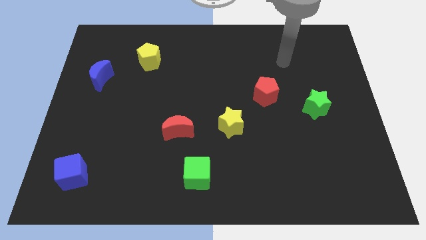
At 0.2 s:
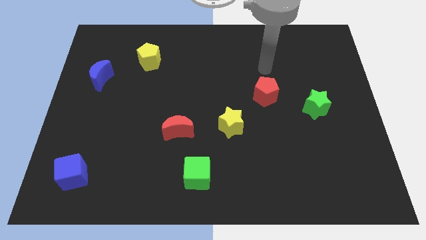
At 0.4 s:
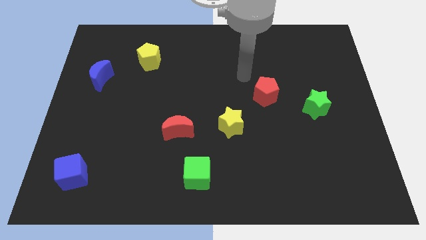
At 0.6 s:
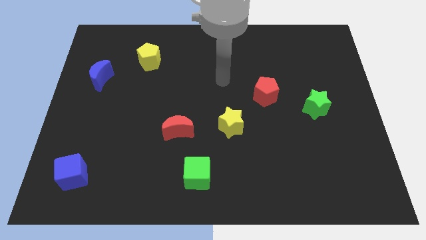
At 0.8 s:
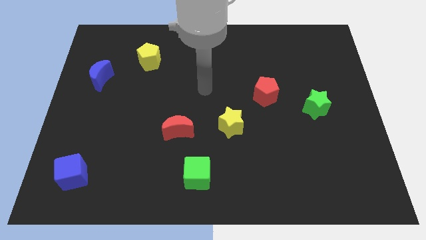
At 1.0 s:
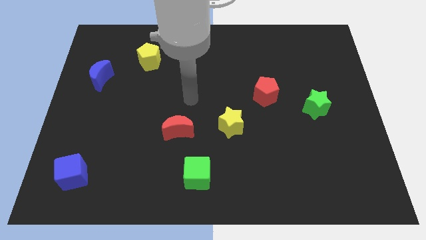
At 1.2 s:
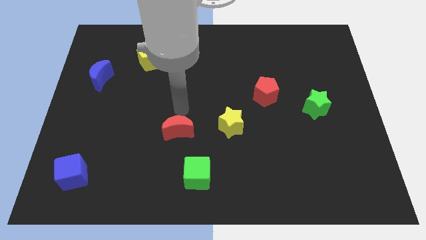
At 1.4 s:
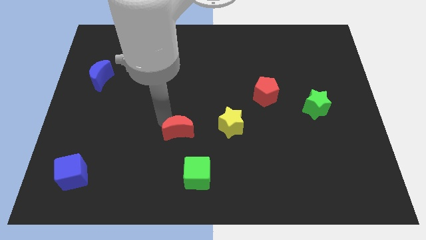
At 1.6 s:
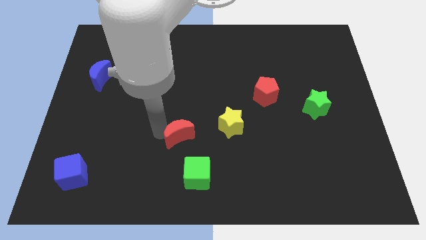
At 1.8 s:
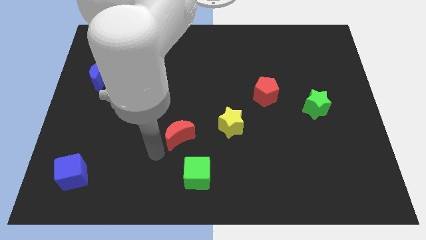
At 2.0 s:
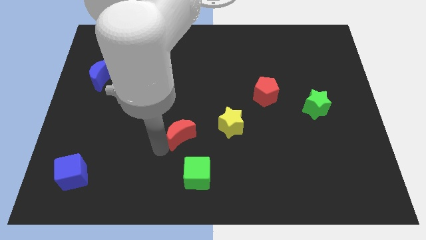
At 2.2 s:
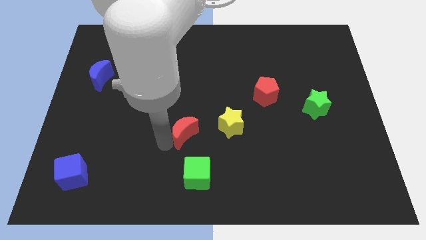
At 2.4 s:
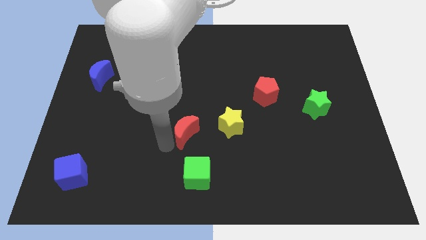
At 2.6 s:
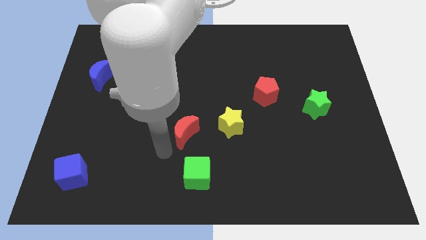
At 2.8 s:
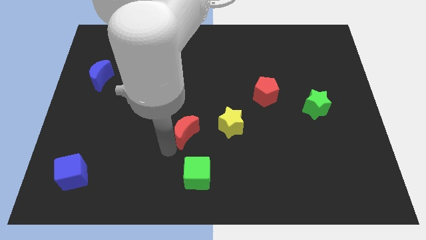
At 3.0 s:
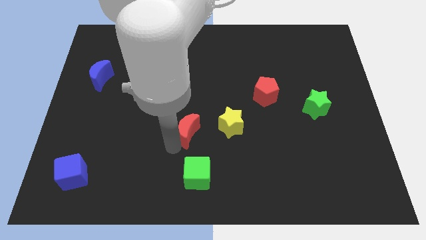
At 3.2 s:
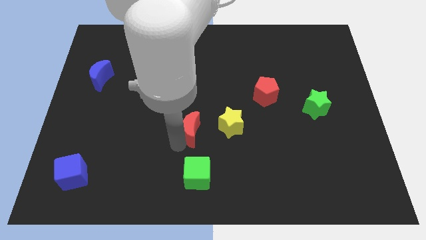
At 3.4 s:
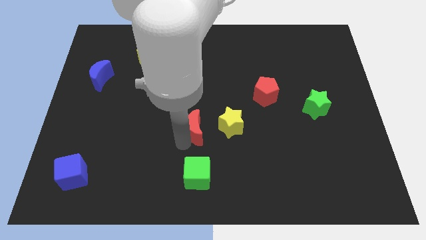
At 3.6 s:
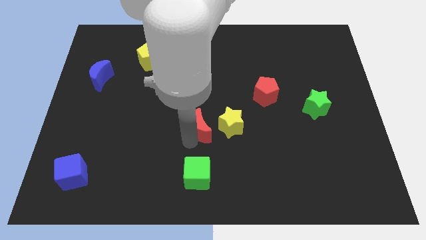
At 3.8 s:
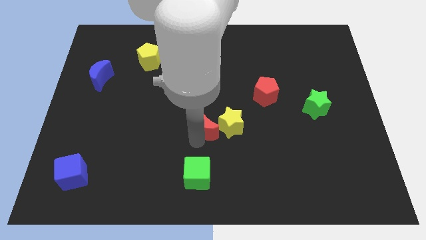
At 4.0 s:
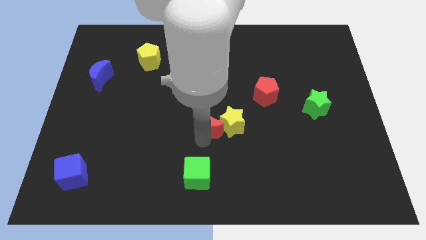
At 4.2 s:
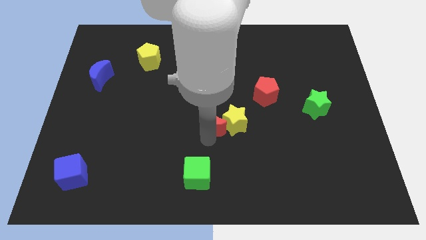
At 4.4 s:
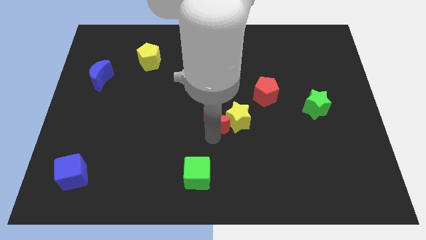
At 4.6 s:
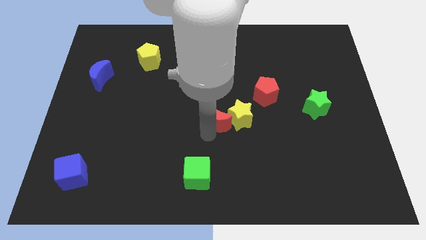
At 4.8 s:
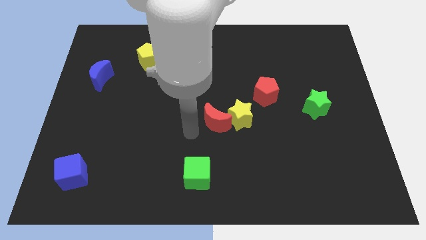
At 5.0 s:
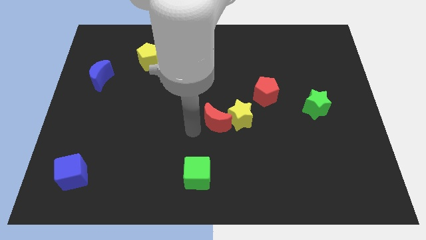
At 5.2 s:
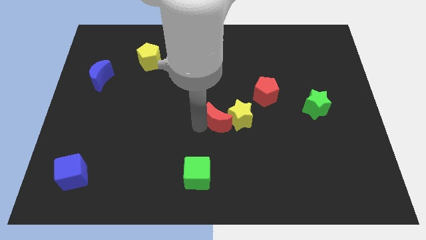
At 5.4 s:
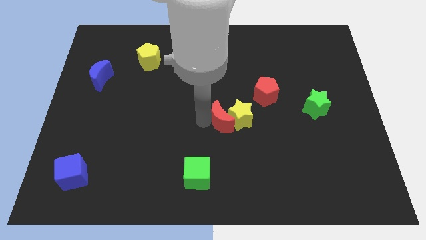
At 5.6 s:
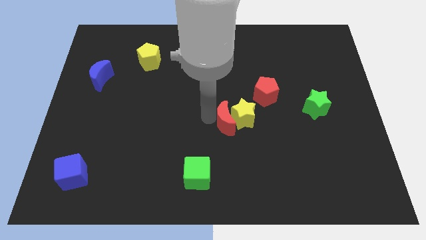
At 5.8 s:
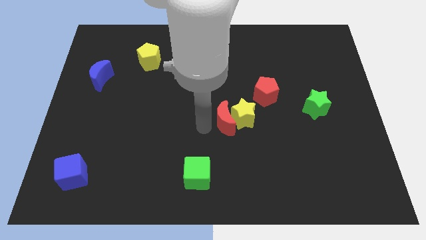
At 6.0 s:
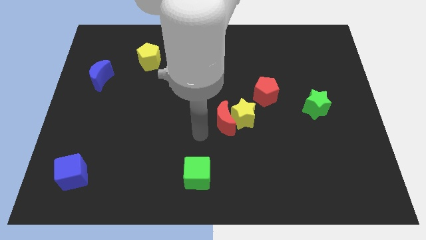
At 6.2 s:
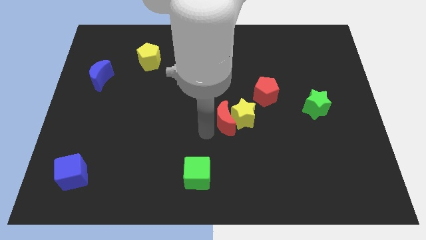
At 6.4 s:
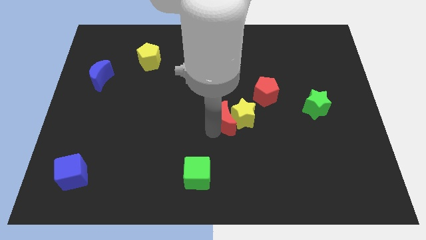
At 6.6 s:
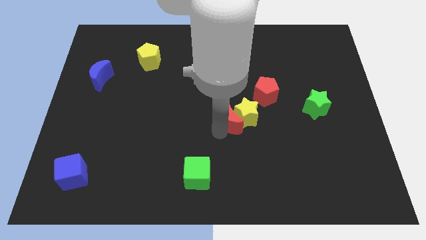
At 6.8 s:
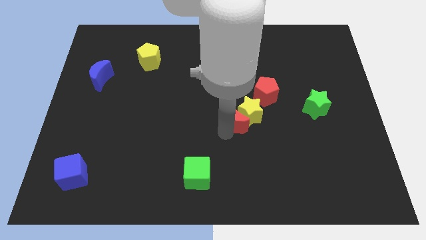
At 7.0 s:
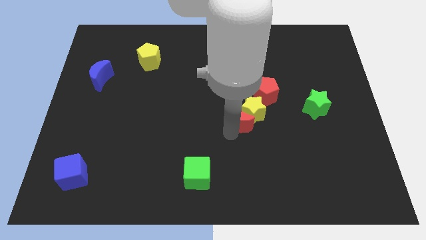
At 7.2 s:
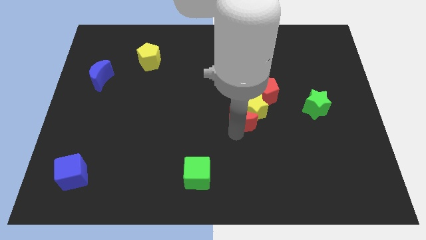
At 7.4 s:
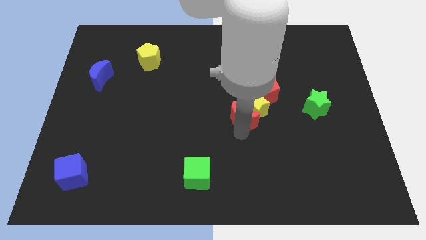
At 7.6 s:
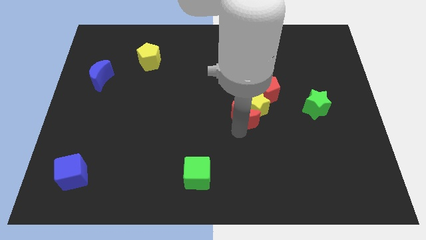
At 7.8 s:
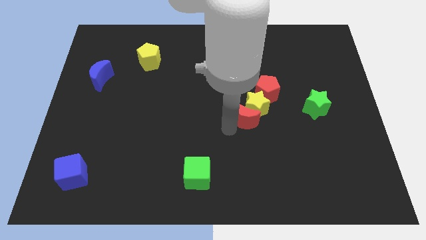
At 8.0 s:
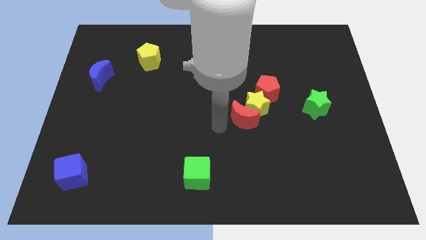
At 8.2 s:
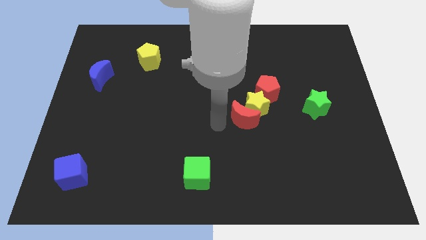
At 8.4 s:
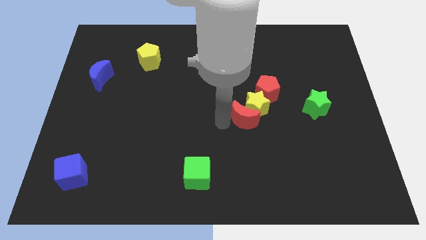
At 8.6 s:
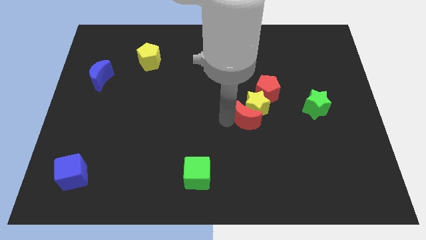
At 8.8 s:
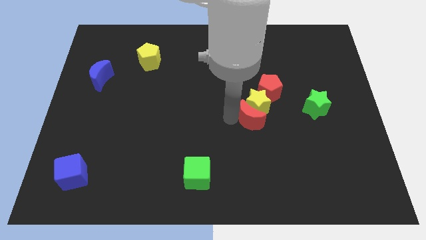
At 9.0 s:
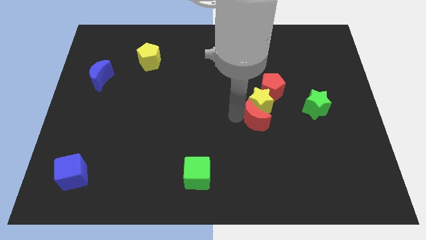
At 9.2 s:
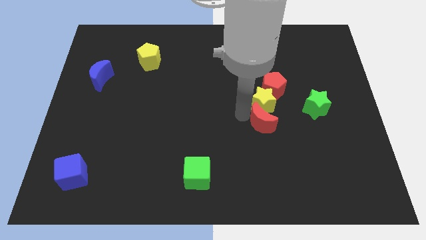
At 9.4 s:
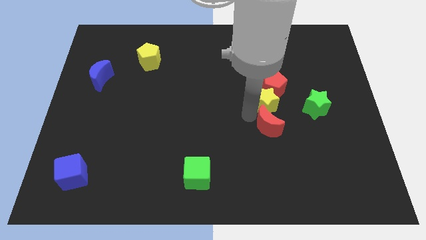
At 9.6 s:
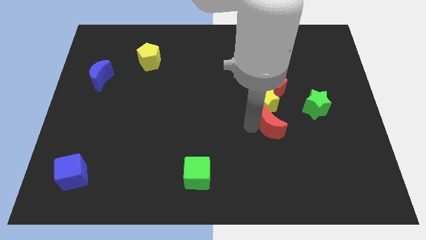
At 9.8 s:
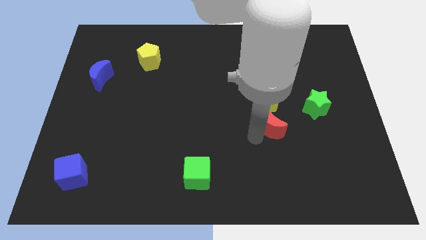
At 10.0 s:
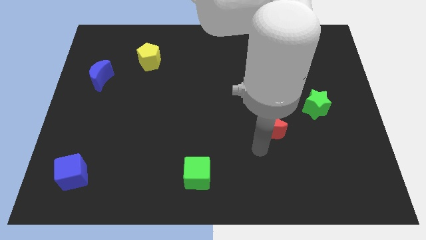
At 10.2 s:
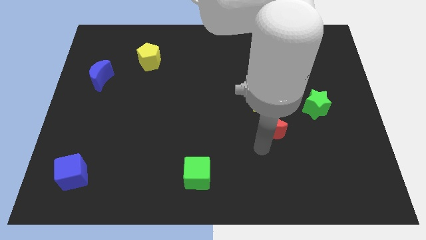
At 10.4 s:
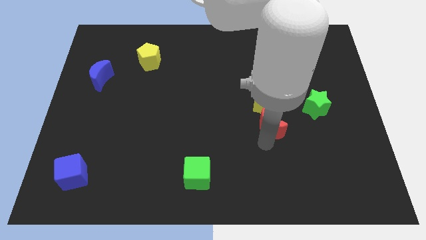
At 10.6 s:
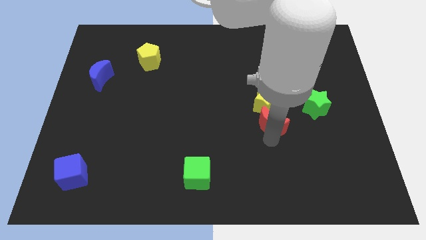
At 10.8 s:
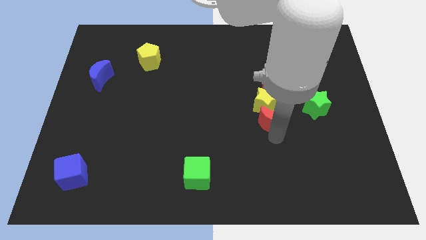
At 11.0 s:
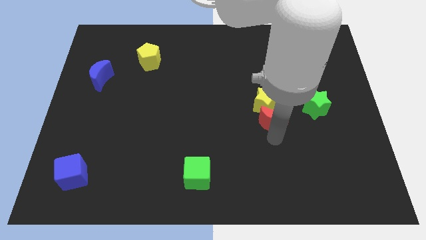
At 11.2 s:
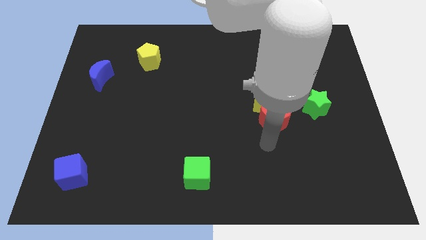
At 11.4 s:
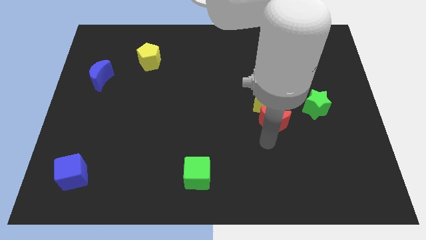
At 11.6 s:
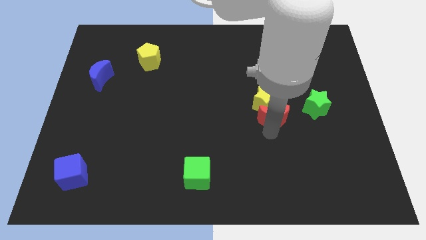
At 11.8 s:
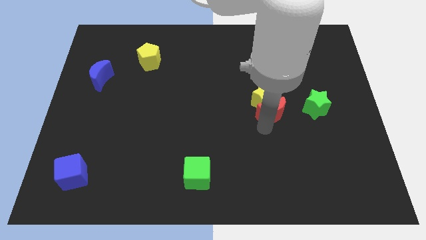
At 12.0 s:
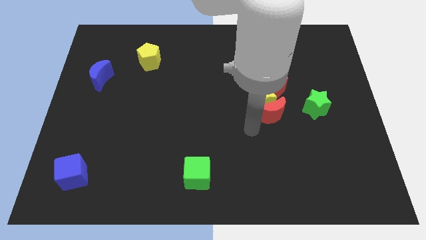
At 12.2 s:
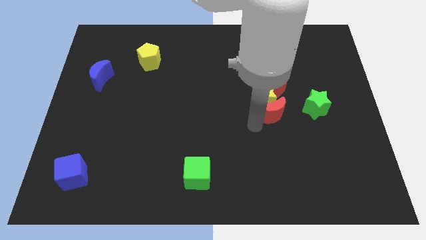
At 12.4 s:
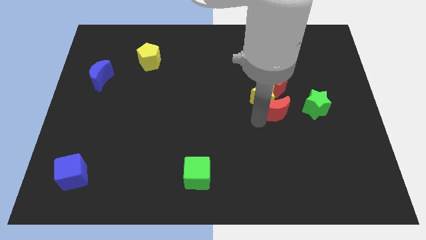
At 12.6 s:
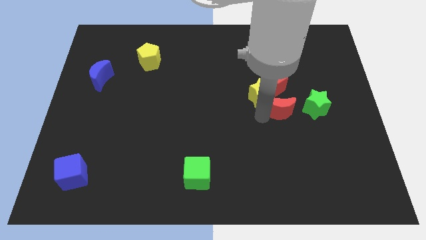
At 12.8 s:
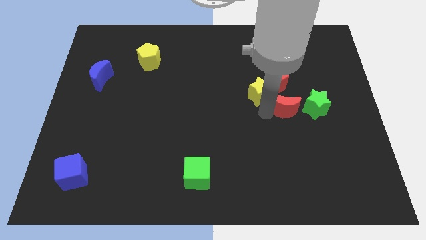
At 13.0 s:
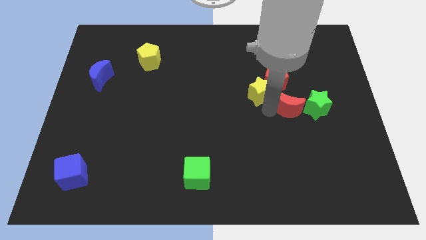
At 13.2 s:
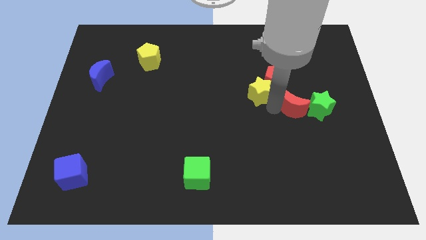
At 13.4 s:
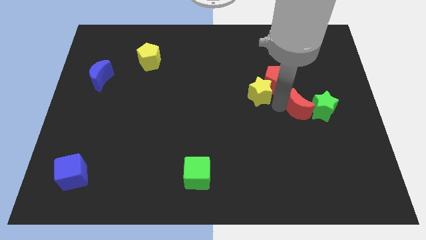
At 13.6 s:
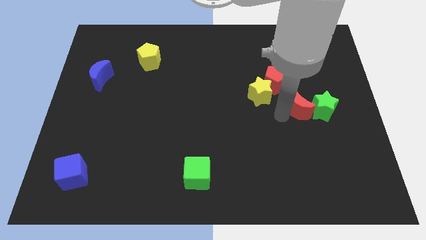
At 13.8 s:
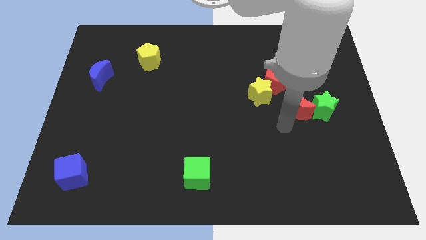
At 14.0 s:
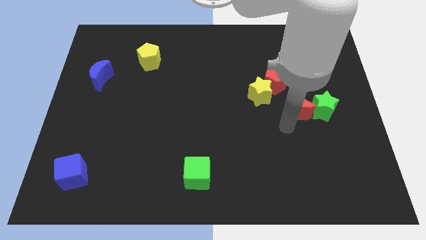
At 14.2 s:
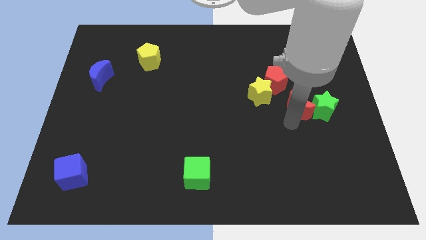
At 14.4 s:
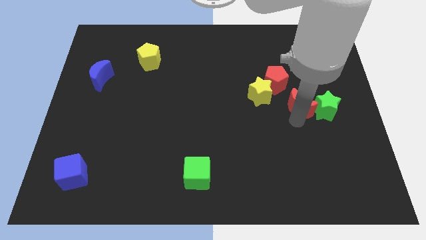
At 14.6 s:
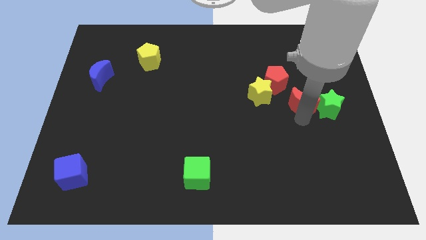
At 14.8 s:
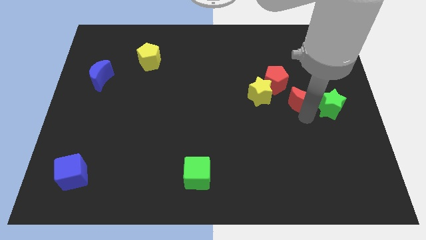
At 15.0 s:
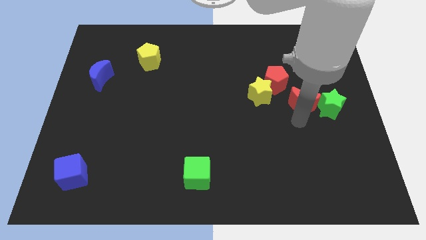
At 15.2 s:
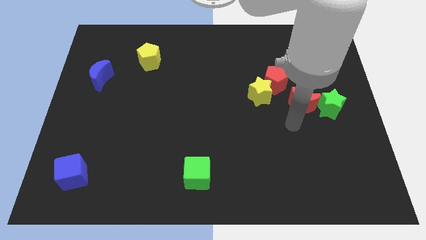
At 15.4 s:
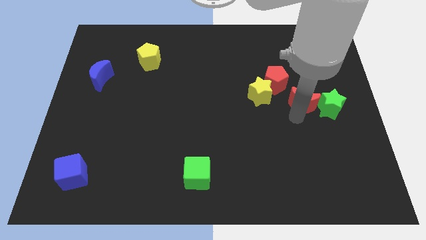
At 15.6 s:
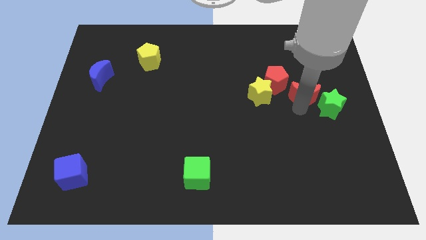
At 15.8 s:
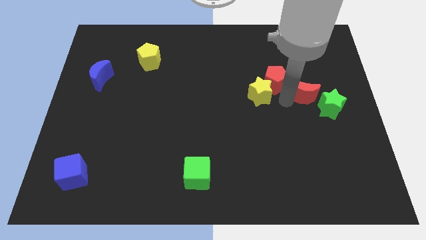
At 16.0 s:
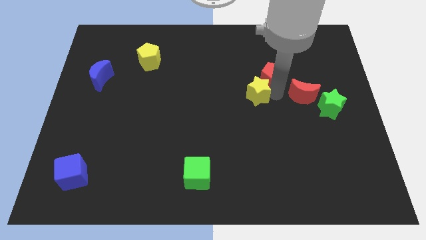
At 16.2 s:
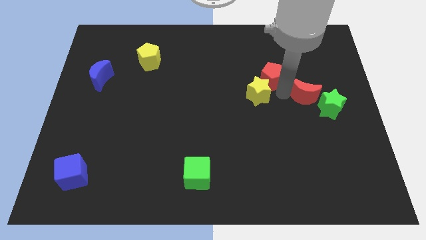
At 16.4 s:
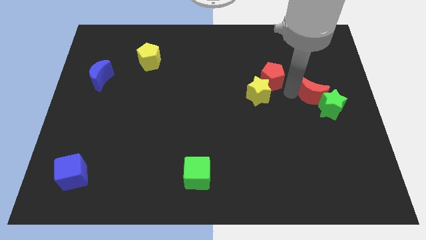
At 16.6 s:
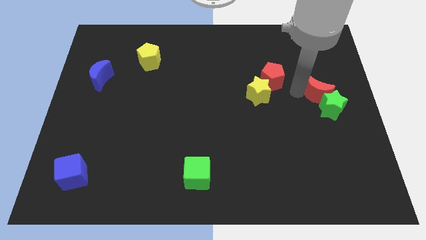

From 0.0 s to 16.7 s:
slide the red moon to the right side
